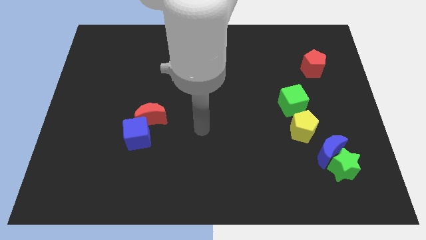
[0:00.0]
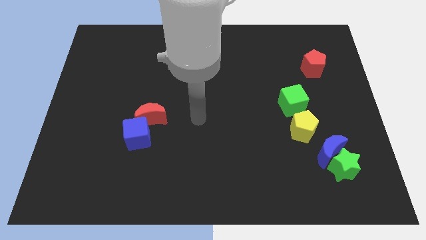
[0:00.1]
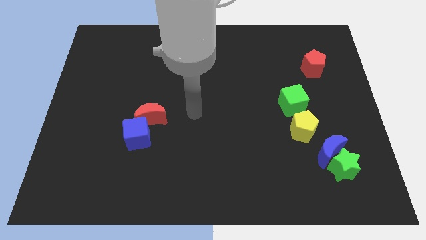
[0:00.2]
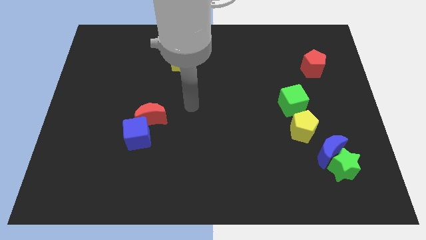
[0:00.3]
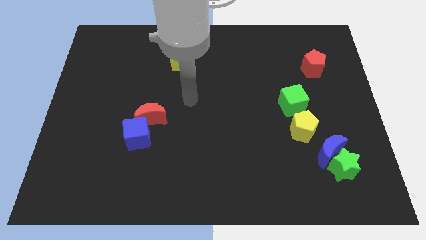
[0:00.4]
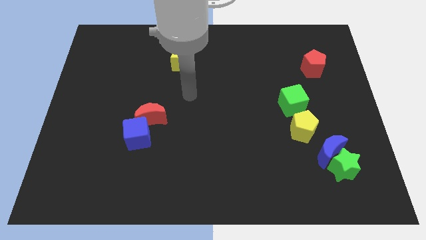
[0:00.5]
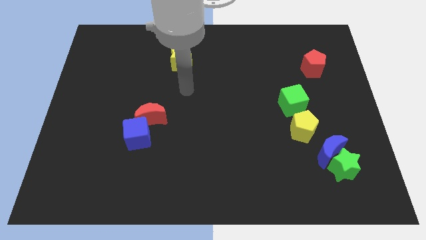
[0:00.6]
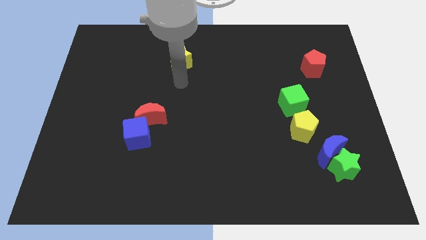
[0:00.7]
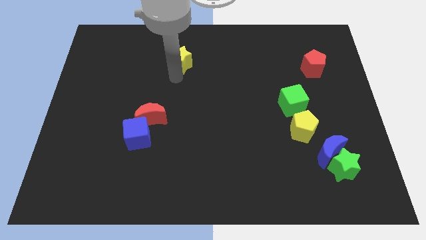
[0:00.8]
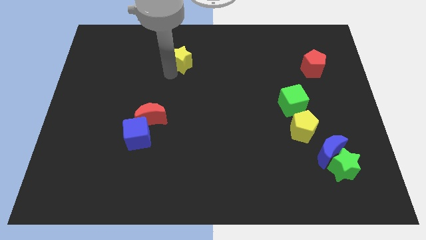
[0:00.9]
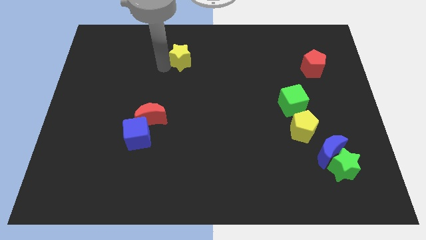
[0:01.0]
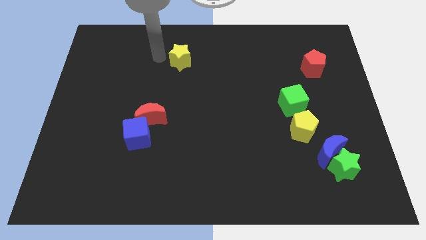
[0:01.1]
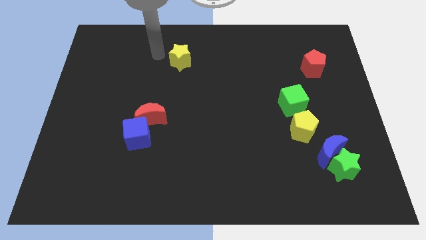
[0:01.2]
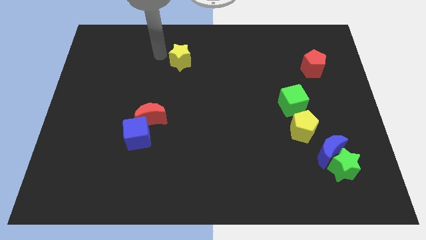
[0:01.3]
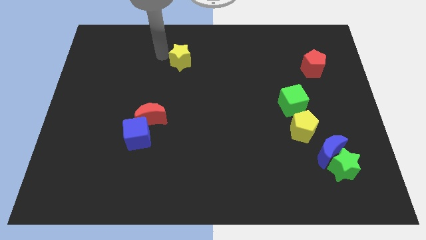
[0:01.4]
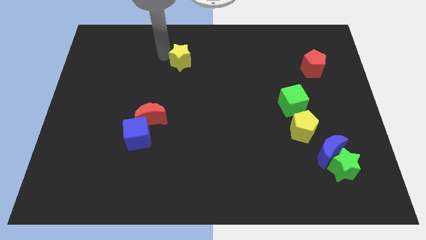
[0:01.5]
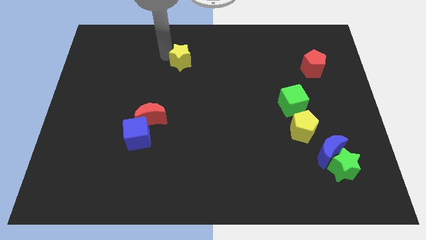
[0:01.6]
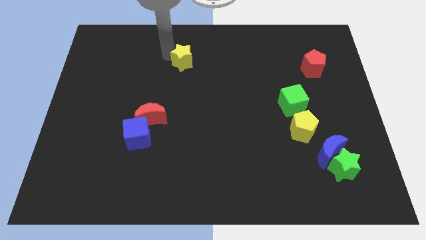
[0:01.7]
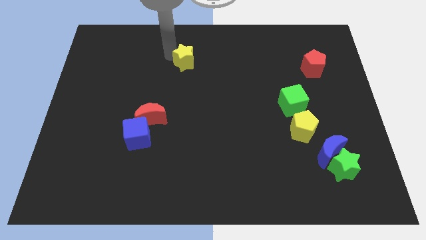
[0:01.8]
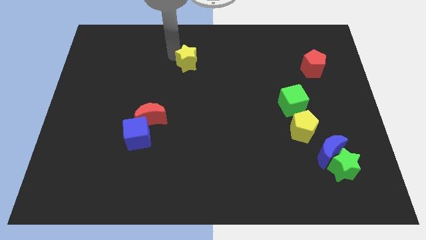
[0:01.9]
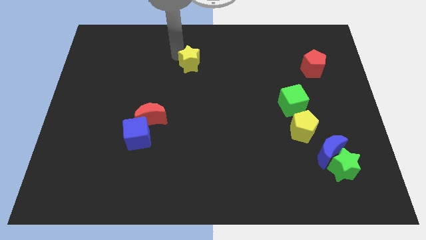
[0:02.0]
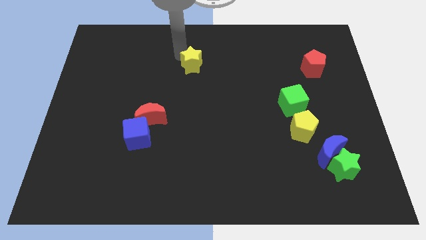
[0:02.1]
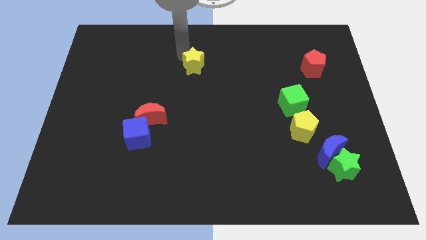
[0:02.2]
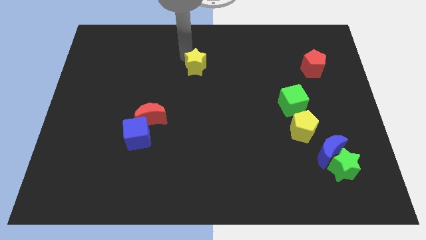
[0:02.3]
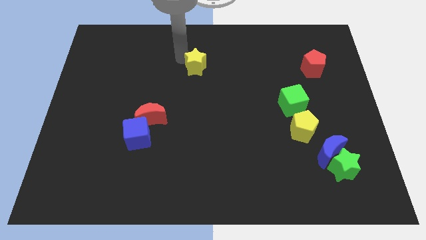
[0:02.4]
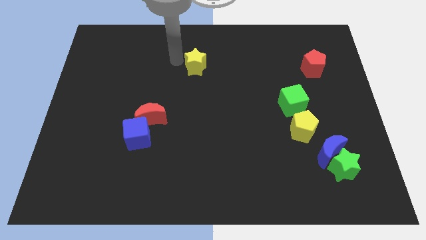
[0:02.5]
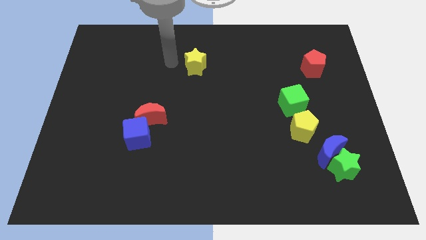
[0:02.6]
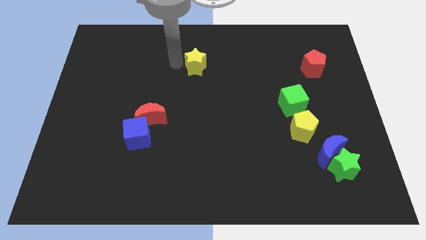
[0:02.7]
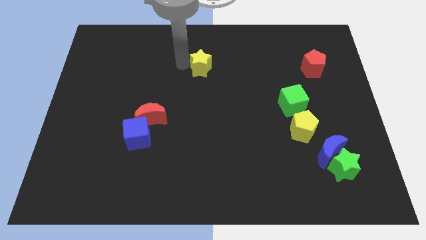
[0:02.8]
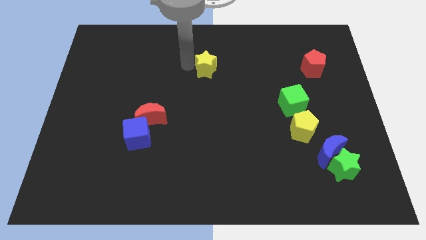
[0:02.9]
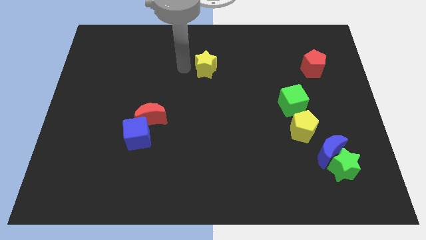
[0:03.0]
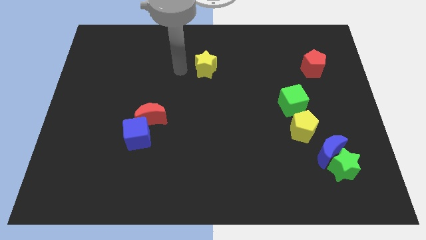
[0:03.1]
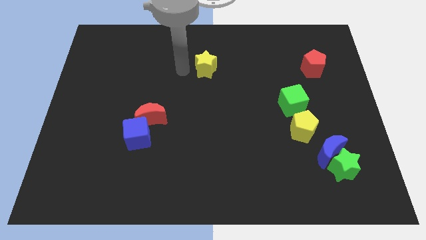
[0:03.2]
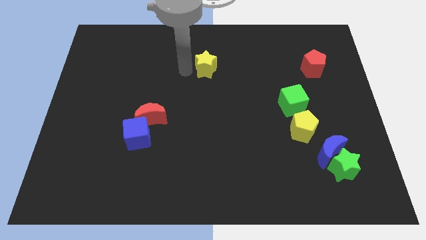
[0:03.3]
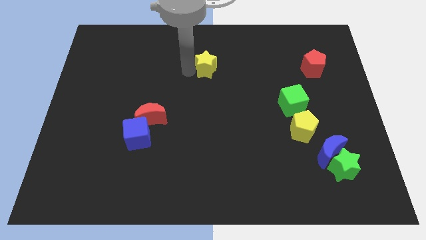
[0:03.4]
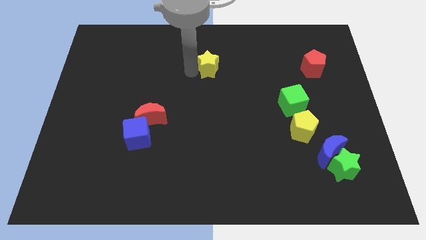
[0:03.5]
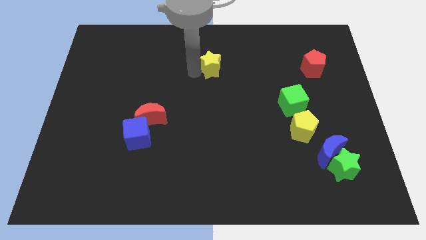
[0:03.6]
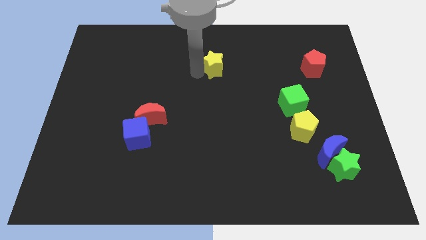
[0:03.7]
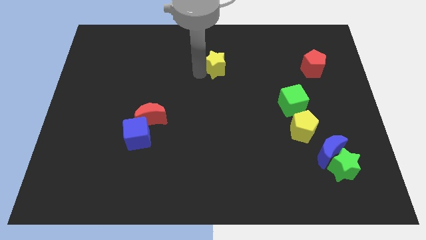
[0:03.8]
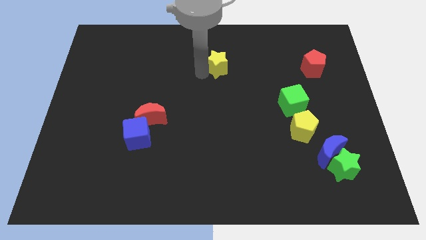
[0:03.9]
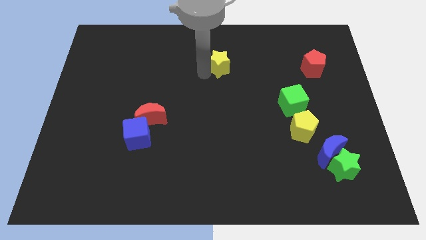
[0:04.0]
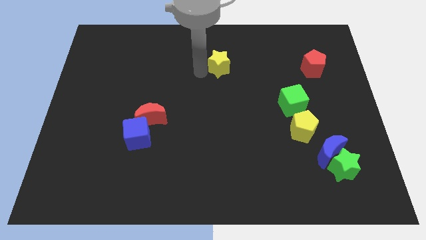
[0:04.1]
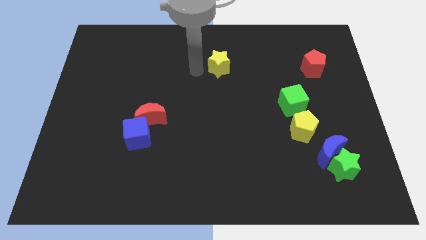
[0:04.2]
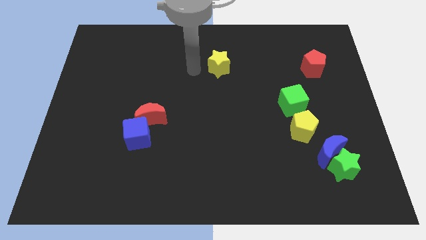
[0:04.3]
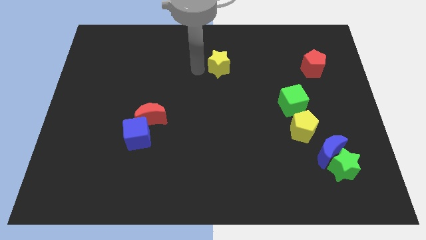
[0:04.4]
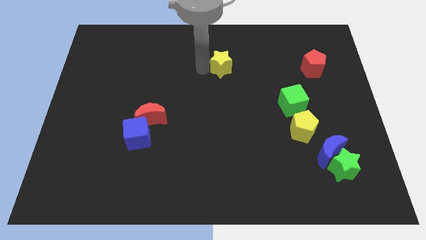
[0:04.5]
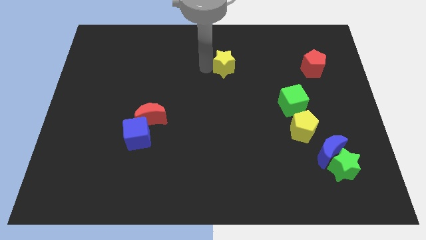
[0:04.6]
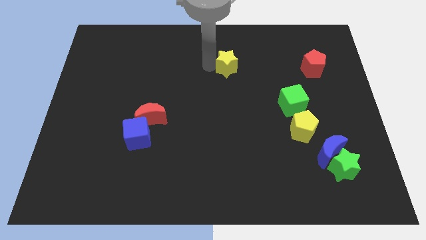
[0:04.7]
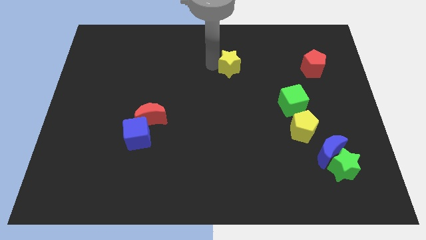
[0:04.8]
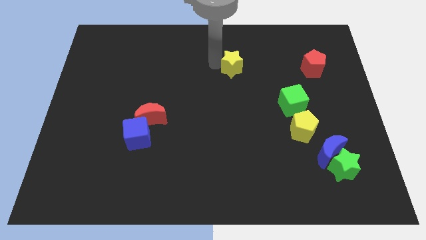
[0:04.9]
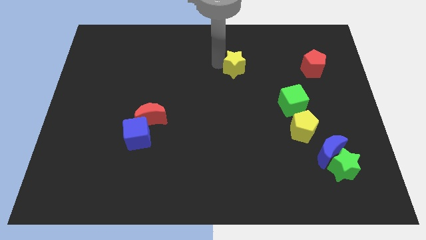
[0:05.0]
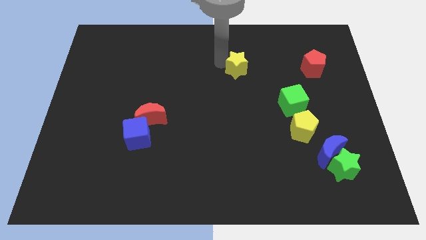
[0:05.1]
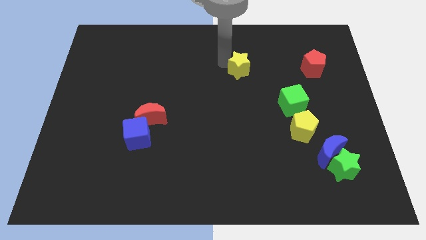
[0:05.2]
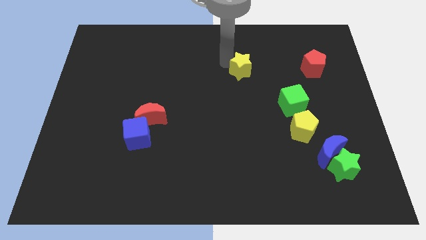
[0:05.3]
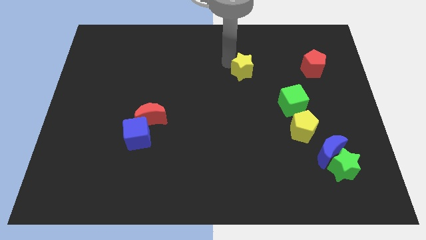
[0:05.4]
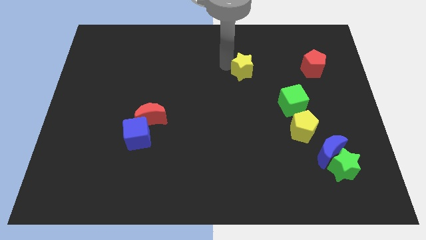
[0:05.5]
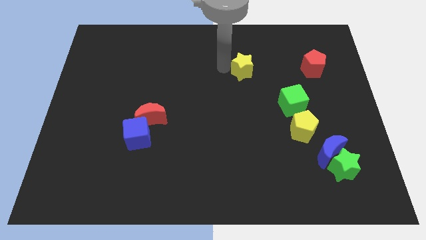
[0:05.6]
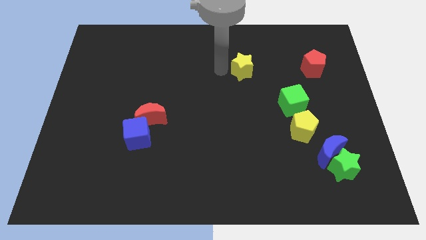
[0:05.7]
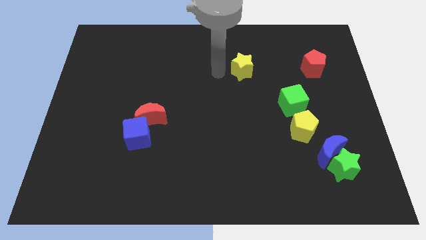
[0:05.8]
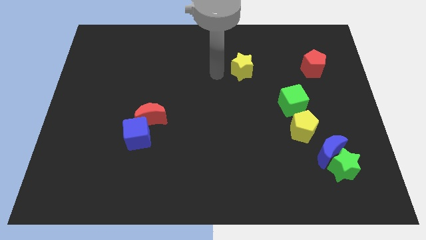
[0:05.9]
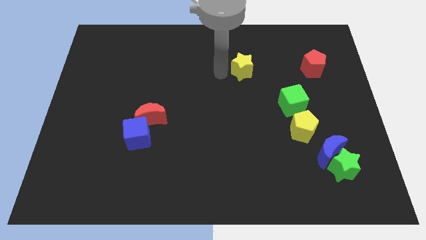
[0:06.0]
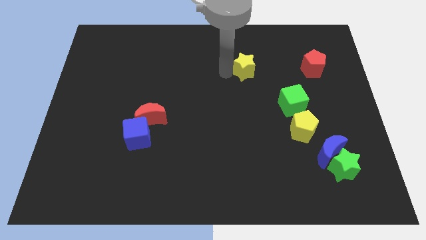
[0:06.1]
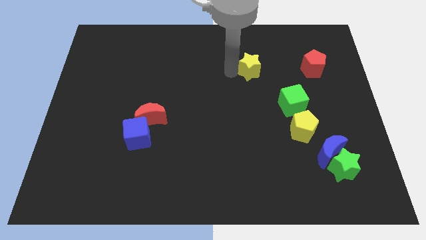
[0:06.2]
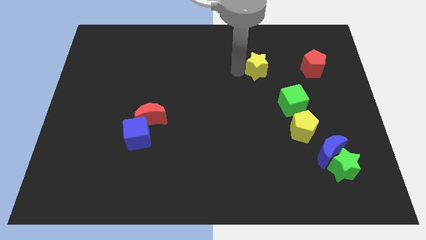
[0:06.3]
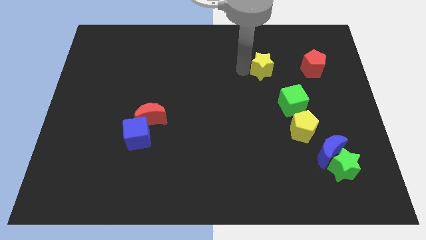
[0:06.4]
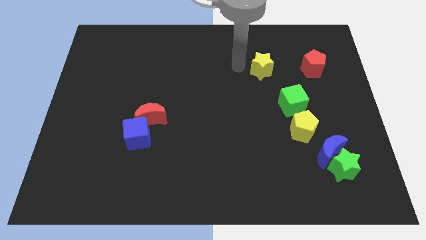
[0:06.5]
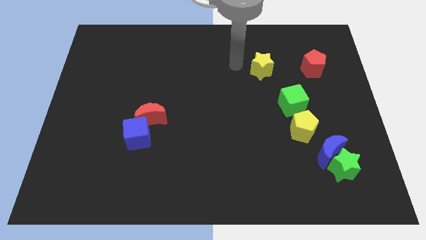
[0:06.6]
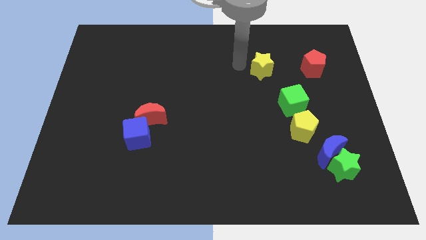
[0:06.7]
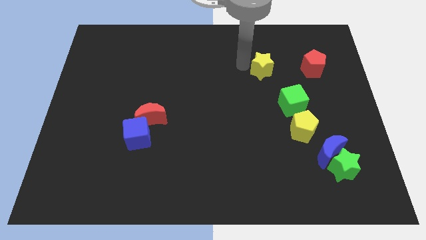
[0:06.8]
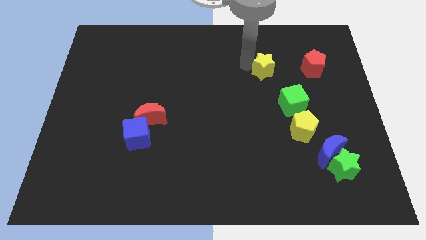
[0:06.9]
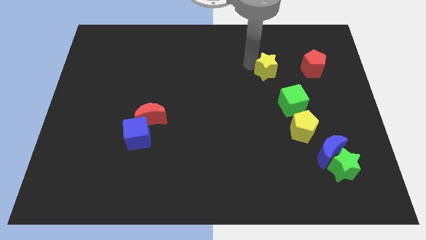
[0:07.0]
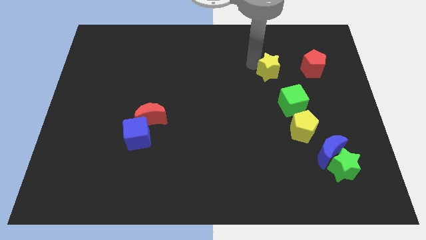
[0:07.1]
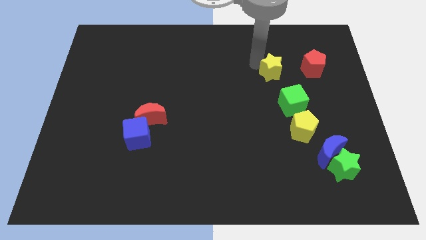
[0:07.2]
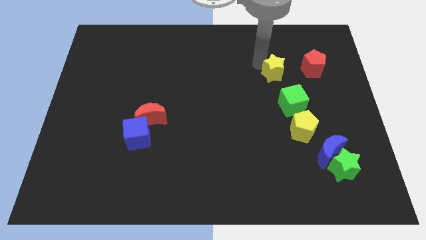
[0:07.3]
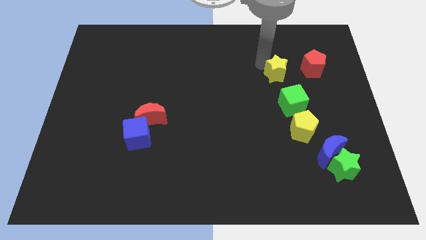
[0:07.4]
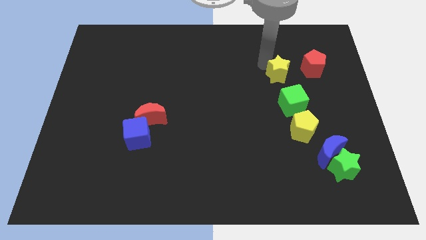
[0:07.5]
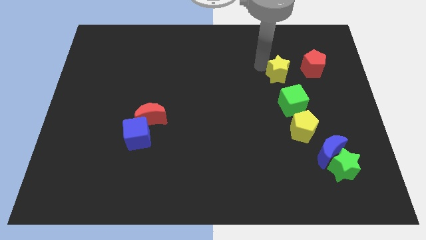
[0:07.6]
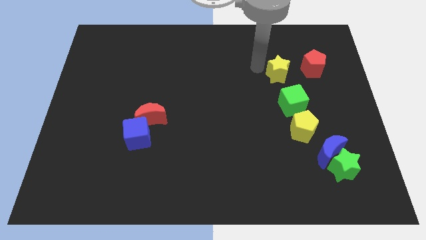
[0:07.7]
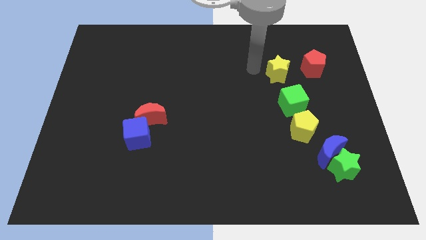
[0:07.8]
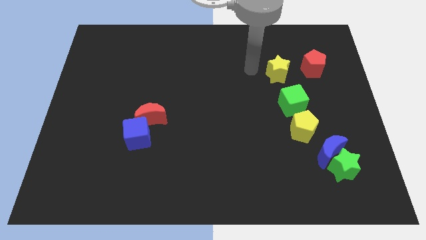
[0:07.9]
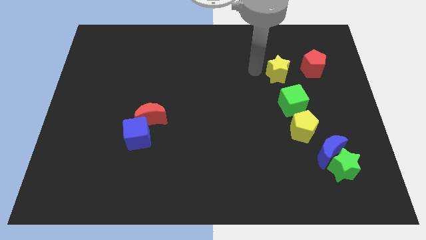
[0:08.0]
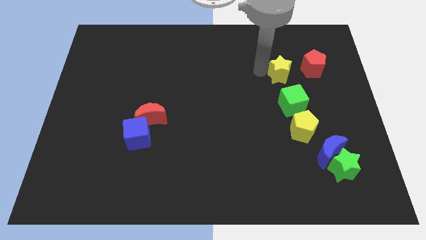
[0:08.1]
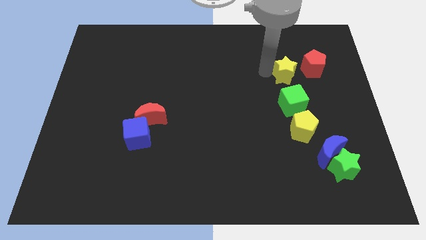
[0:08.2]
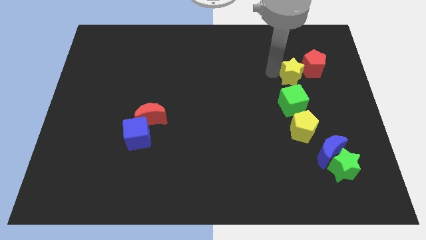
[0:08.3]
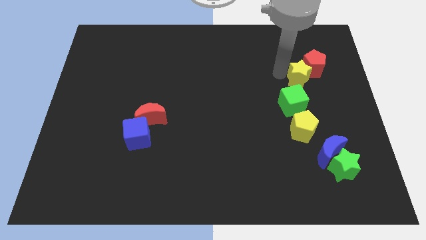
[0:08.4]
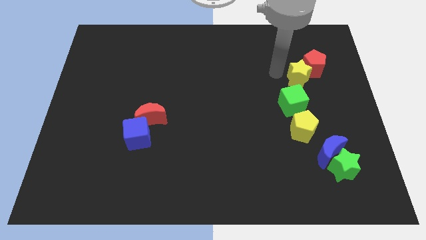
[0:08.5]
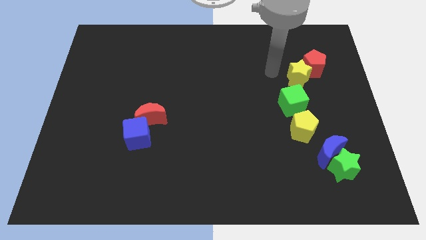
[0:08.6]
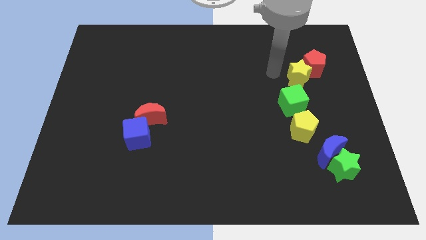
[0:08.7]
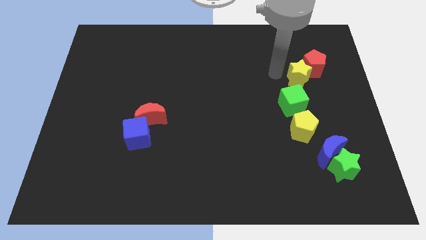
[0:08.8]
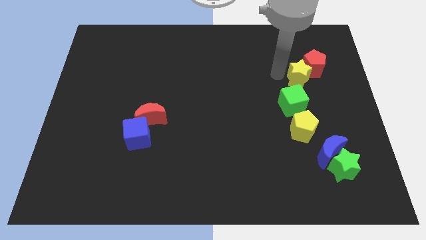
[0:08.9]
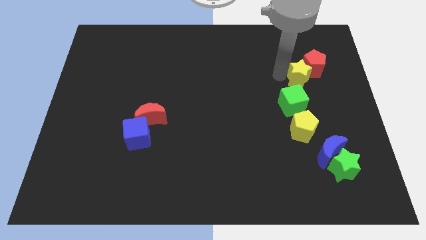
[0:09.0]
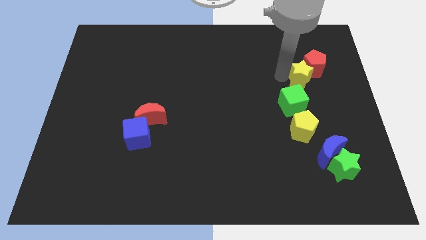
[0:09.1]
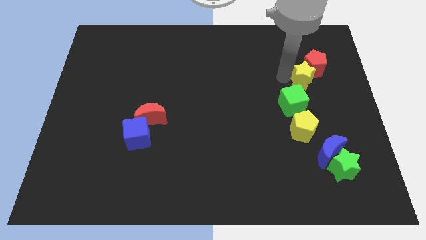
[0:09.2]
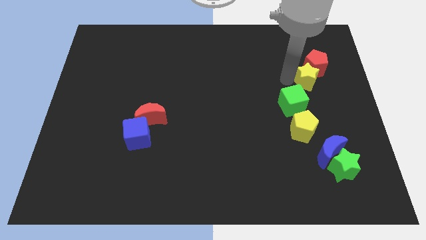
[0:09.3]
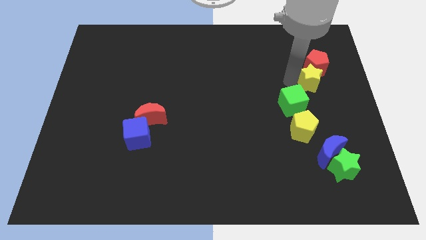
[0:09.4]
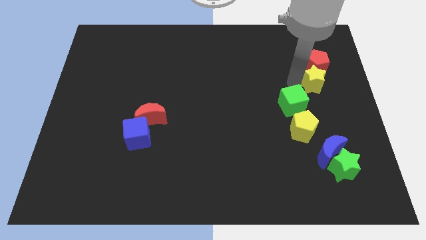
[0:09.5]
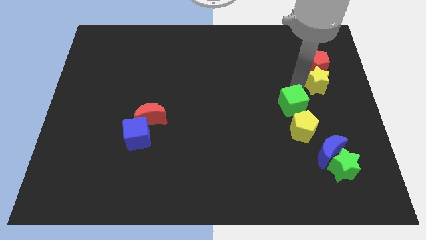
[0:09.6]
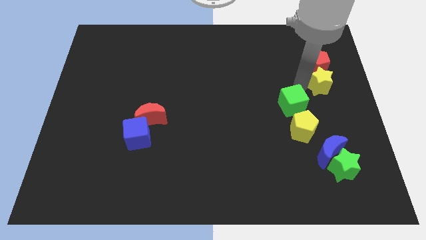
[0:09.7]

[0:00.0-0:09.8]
put the yellow star to the right side of the board
